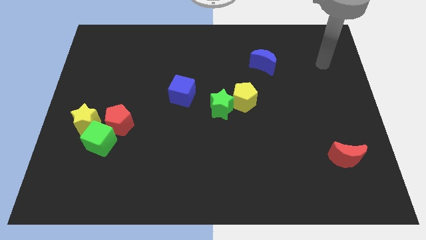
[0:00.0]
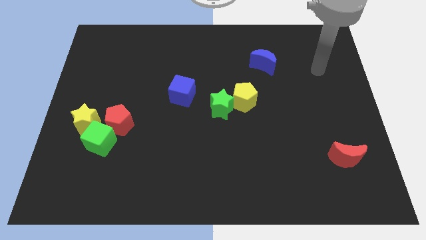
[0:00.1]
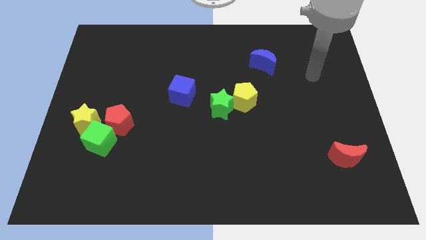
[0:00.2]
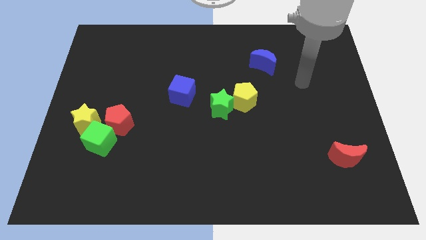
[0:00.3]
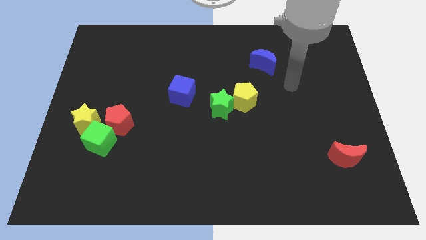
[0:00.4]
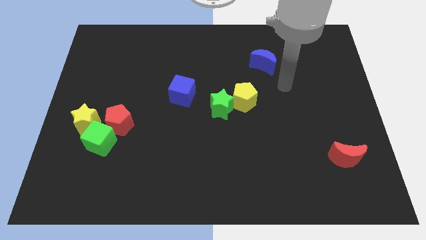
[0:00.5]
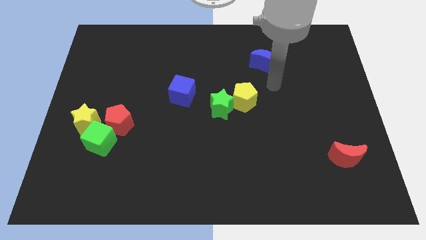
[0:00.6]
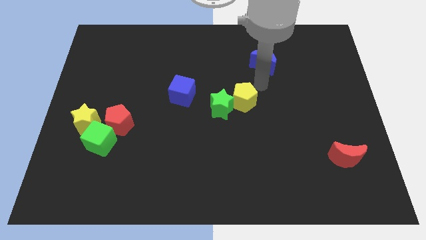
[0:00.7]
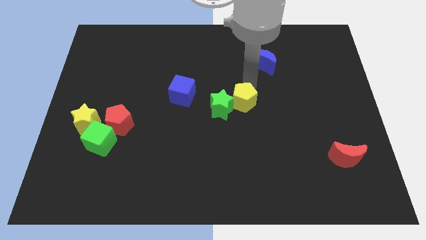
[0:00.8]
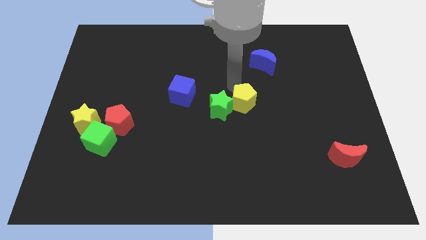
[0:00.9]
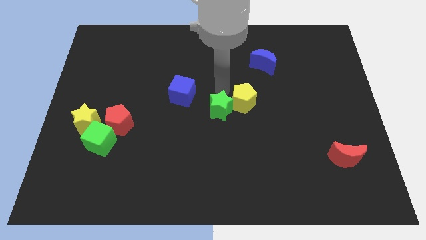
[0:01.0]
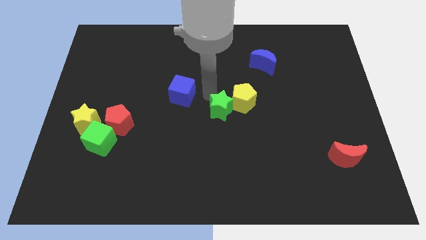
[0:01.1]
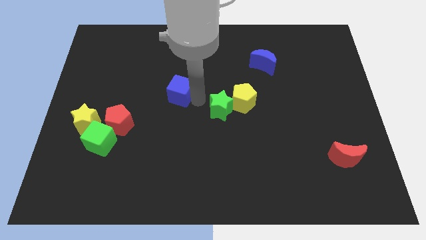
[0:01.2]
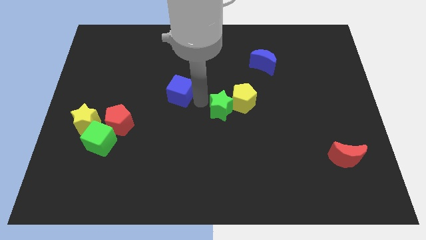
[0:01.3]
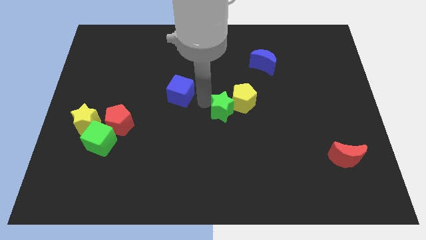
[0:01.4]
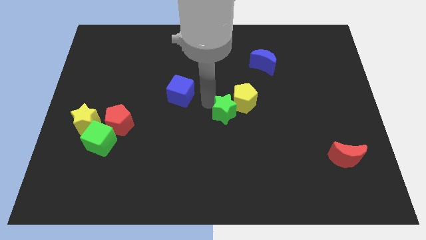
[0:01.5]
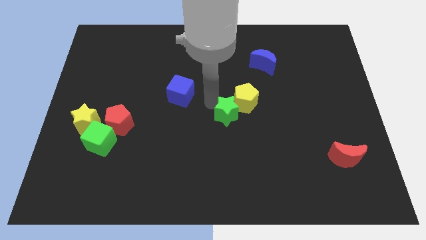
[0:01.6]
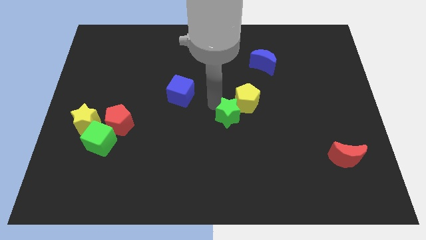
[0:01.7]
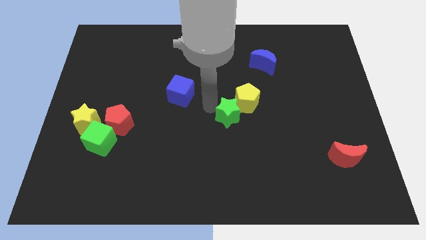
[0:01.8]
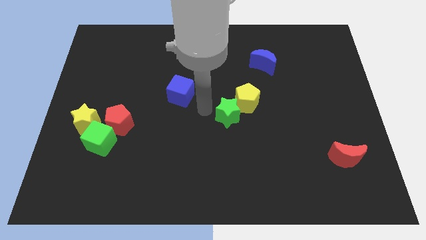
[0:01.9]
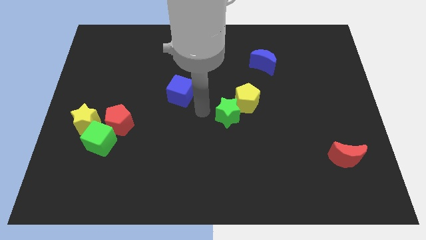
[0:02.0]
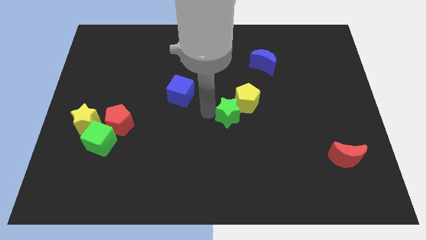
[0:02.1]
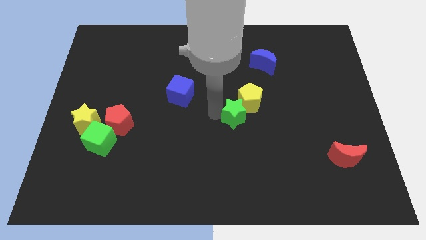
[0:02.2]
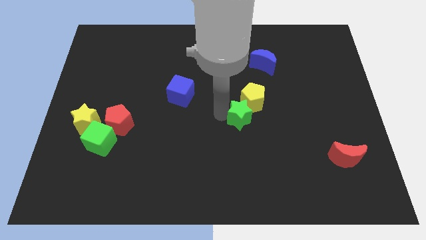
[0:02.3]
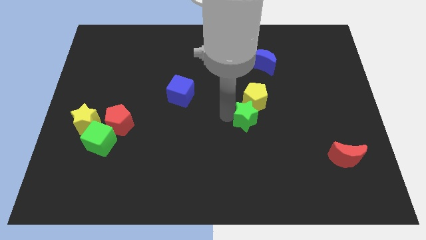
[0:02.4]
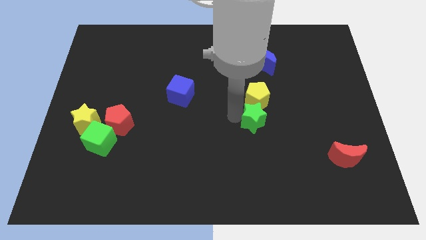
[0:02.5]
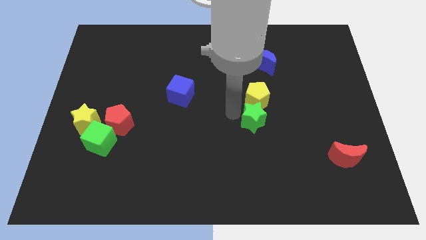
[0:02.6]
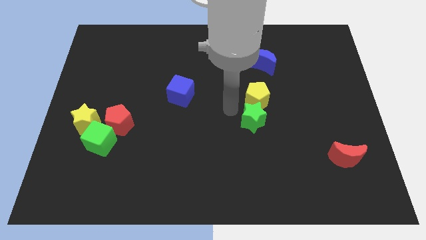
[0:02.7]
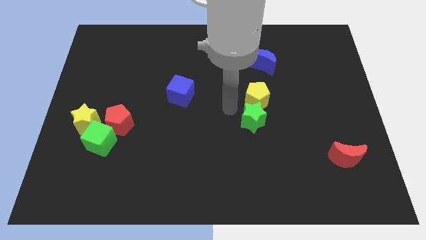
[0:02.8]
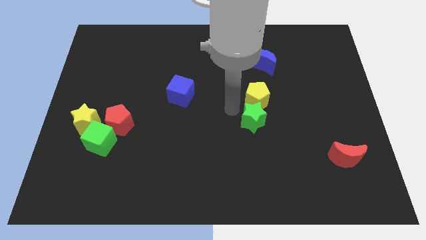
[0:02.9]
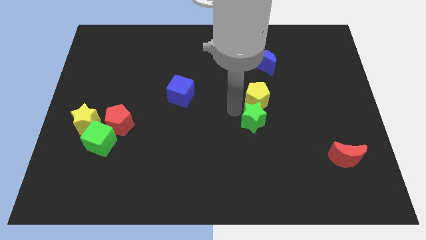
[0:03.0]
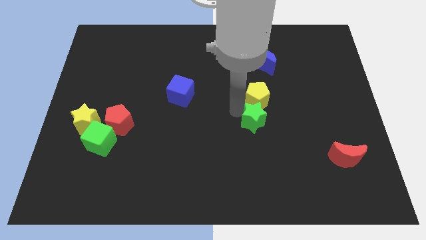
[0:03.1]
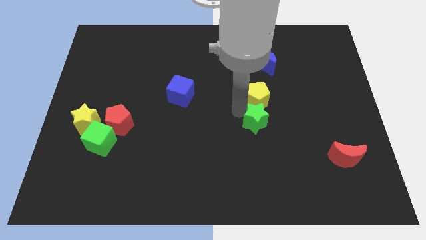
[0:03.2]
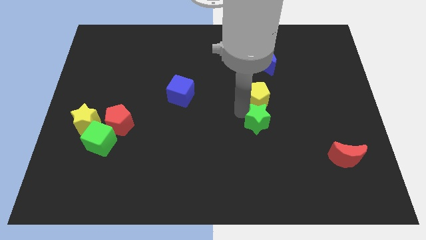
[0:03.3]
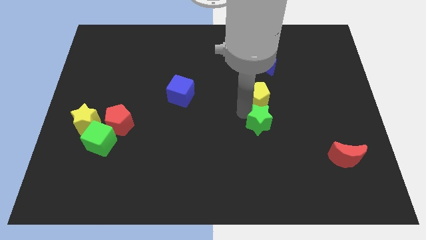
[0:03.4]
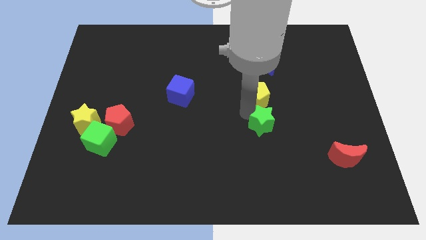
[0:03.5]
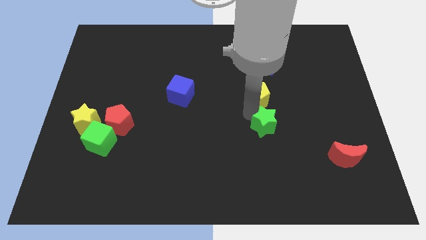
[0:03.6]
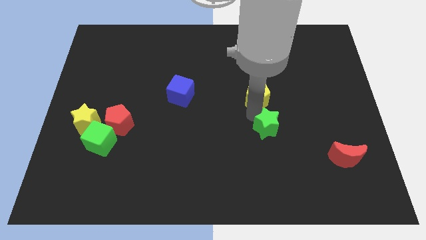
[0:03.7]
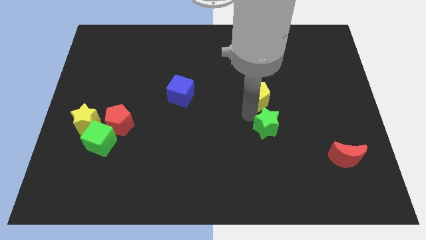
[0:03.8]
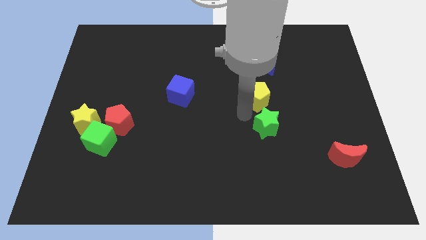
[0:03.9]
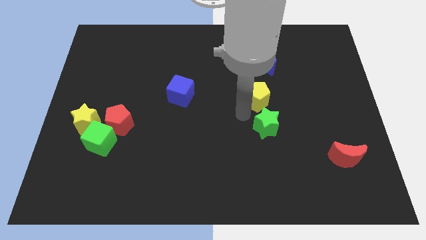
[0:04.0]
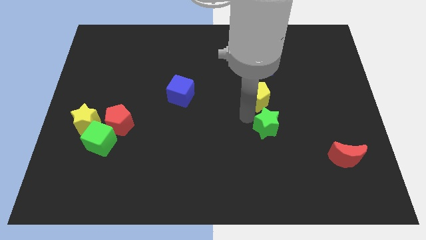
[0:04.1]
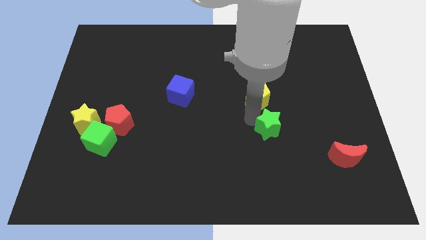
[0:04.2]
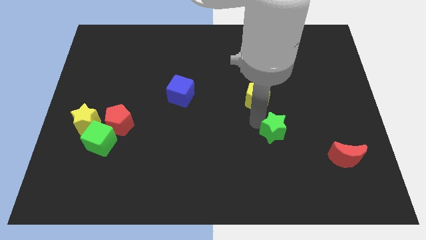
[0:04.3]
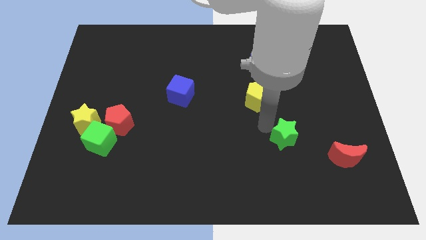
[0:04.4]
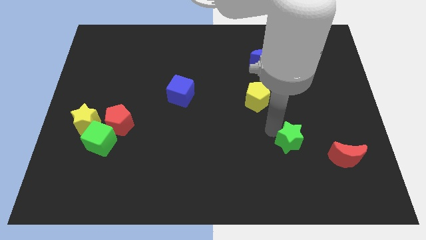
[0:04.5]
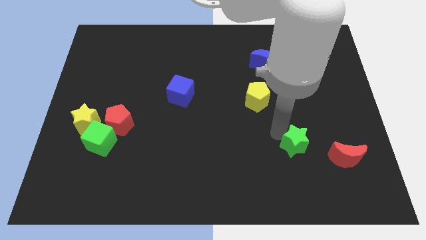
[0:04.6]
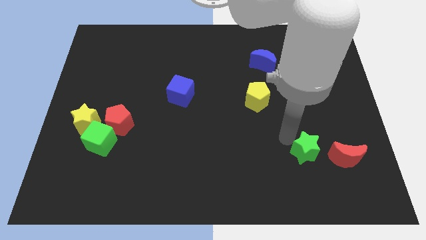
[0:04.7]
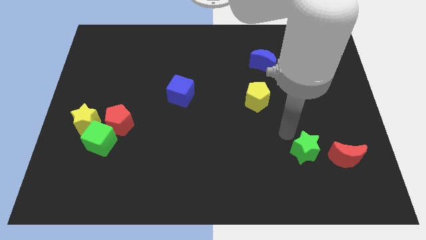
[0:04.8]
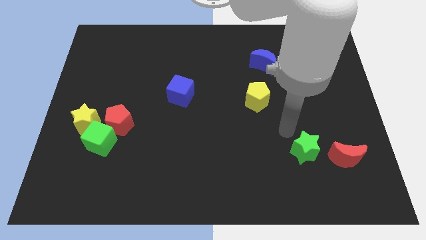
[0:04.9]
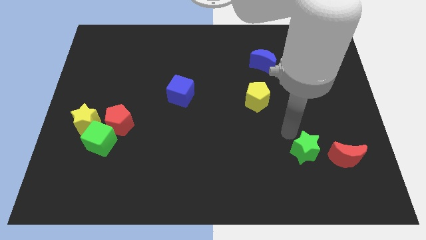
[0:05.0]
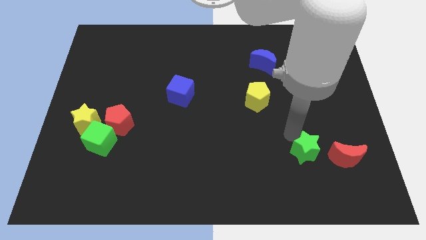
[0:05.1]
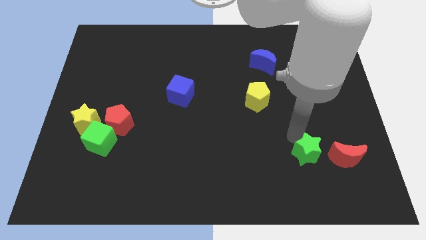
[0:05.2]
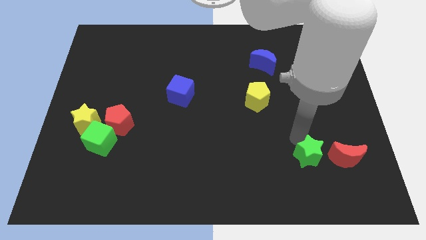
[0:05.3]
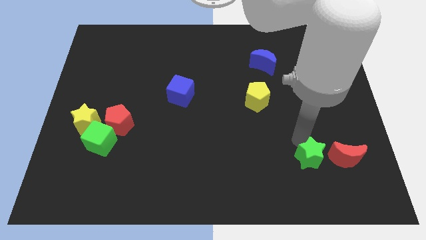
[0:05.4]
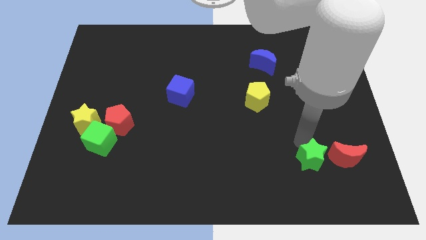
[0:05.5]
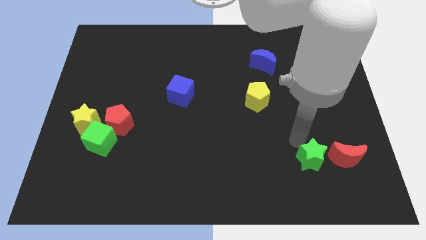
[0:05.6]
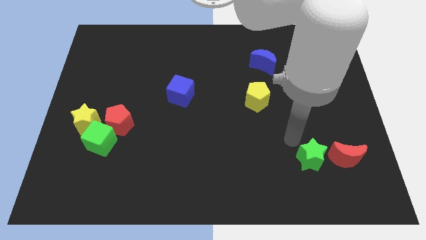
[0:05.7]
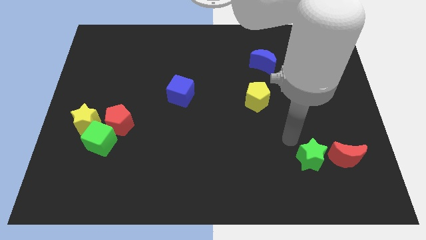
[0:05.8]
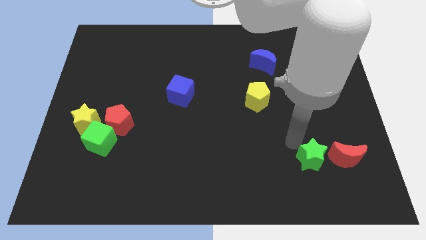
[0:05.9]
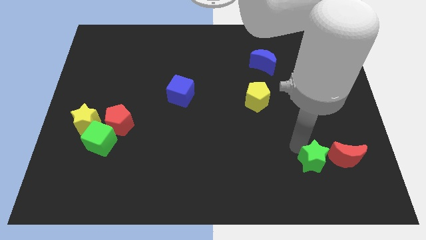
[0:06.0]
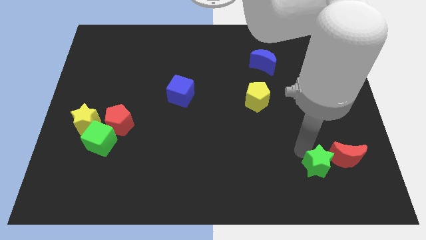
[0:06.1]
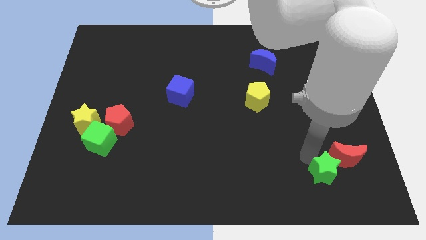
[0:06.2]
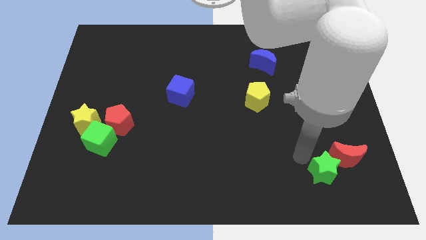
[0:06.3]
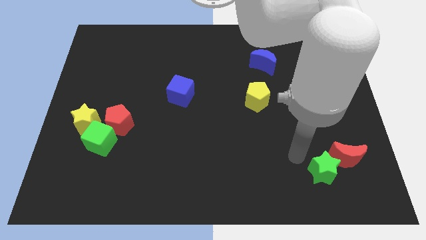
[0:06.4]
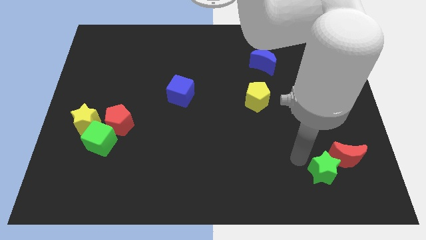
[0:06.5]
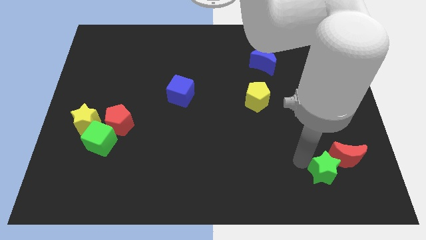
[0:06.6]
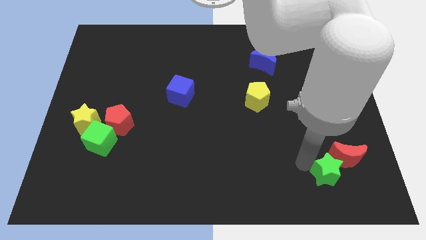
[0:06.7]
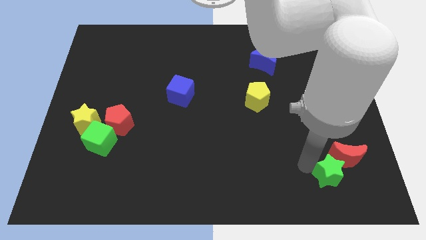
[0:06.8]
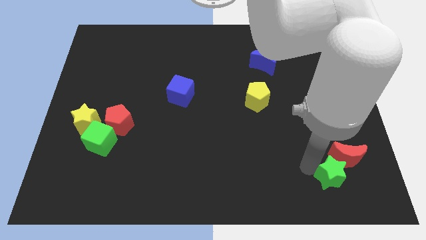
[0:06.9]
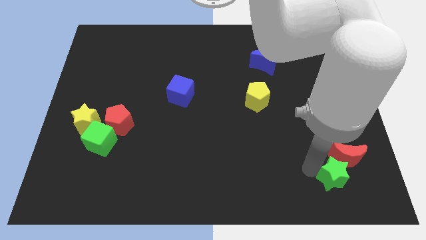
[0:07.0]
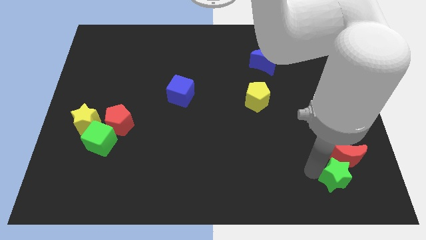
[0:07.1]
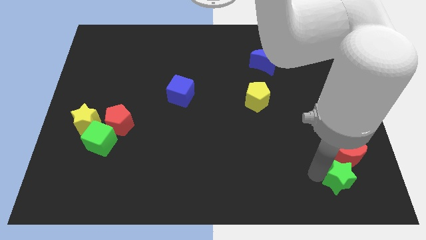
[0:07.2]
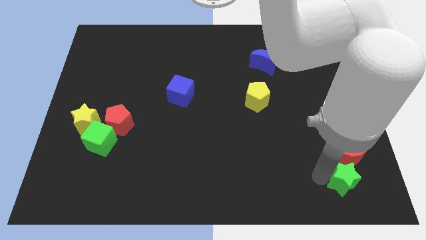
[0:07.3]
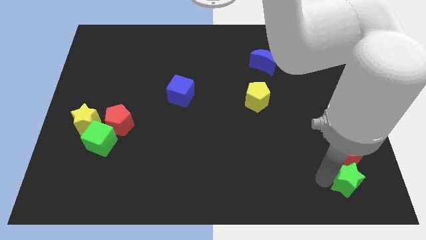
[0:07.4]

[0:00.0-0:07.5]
put the green star to the bottom right

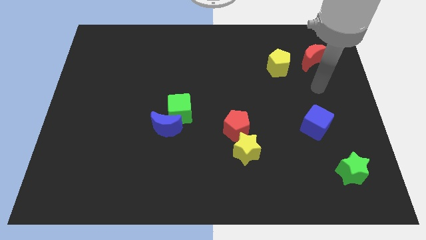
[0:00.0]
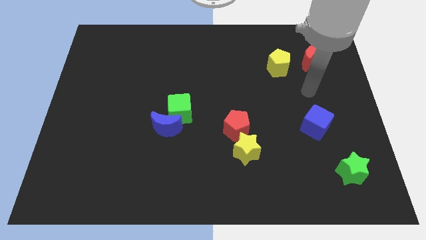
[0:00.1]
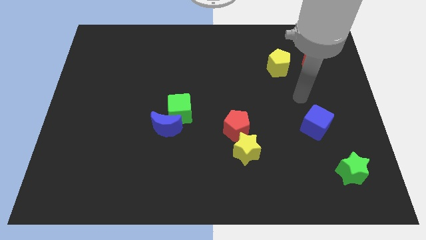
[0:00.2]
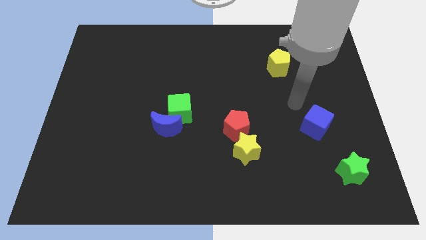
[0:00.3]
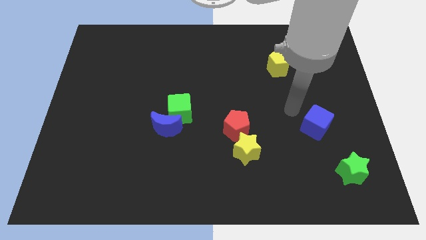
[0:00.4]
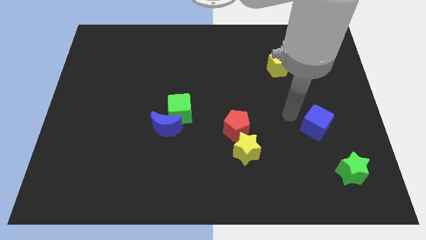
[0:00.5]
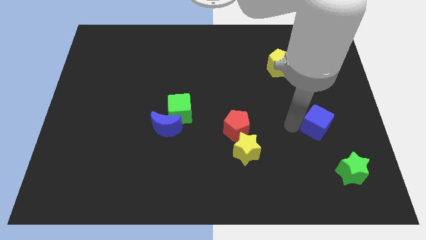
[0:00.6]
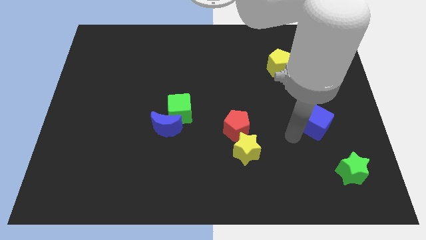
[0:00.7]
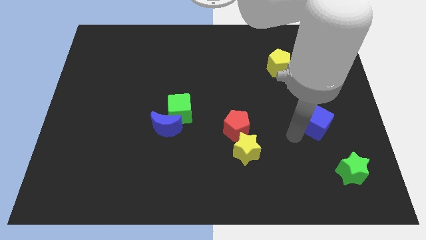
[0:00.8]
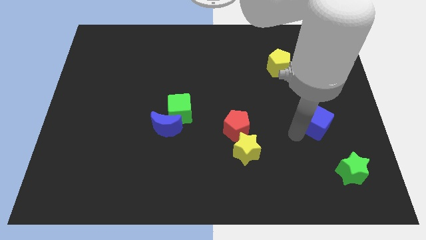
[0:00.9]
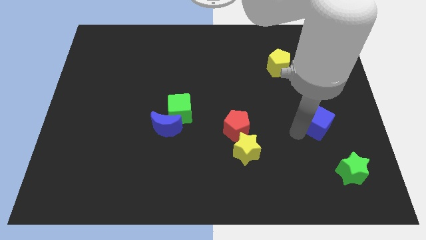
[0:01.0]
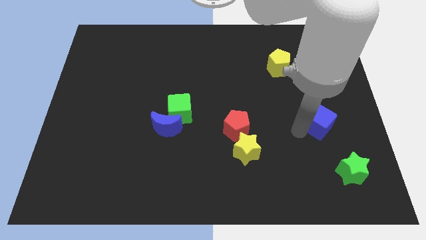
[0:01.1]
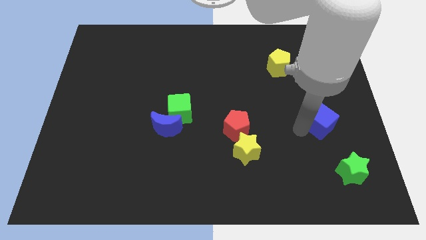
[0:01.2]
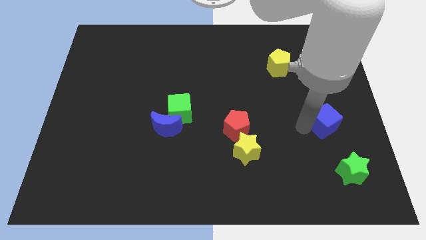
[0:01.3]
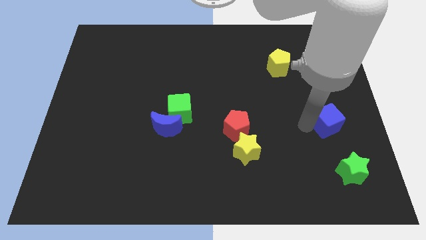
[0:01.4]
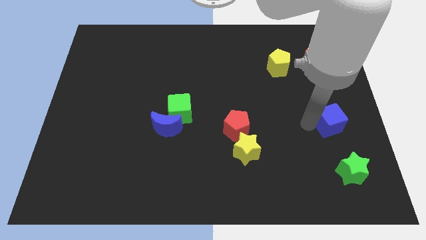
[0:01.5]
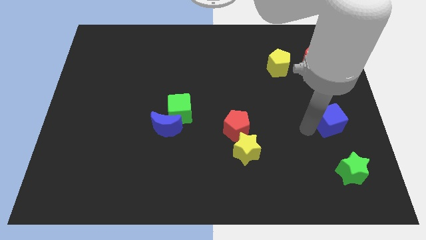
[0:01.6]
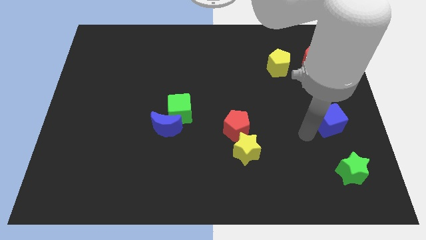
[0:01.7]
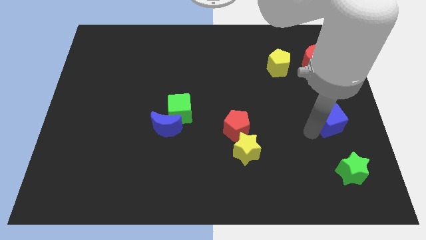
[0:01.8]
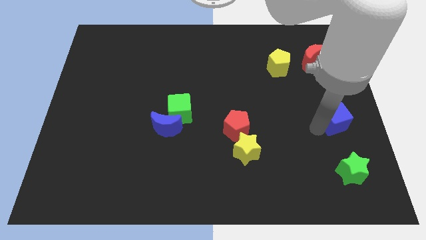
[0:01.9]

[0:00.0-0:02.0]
put the blue cube to the center right
